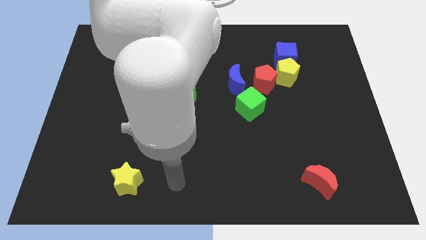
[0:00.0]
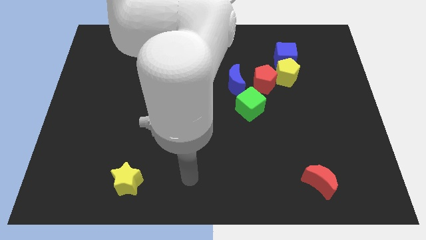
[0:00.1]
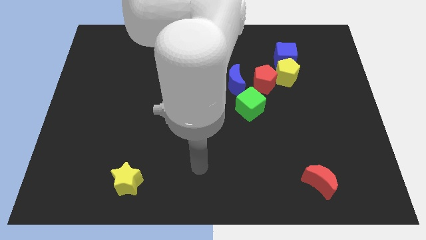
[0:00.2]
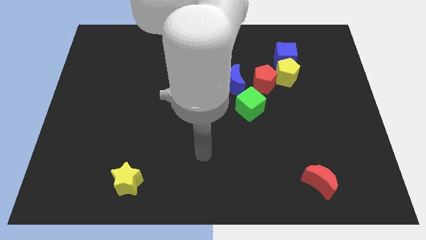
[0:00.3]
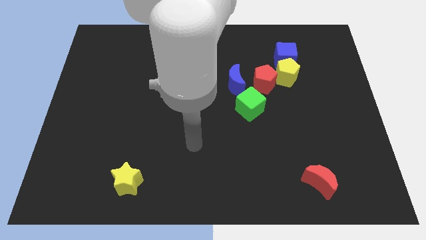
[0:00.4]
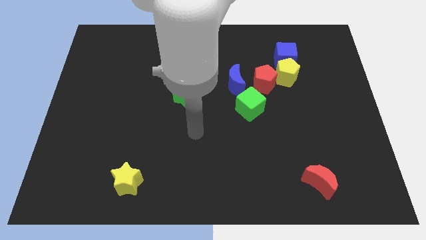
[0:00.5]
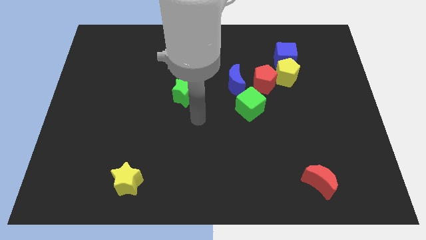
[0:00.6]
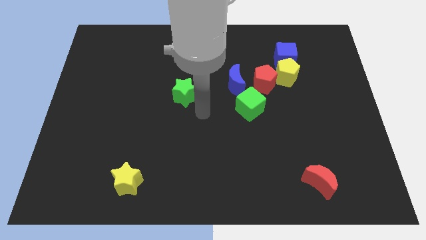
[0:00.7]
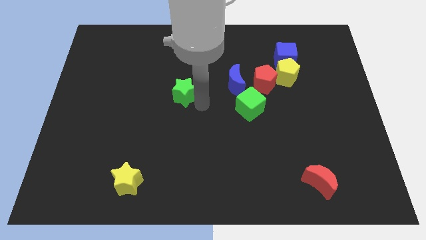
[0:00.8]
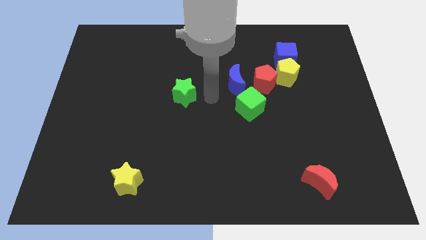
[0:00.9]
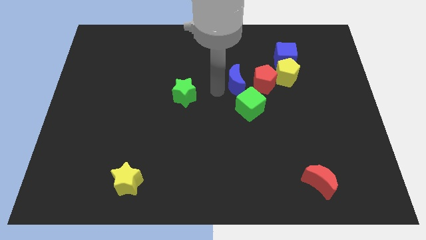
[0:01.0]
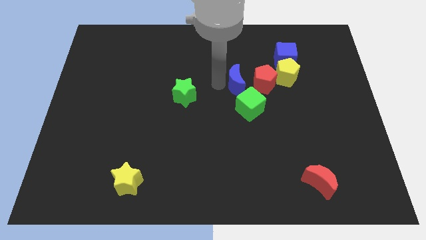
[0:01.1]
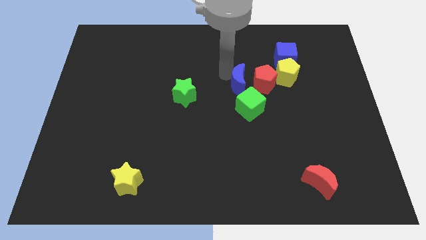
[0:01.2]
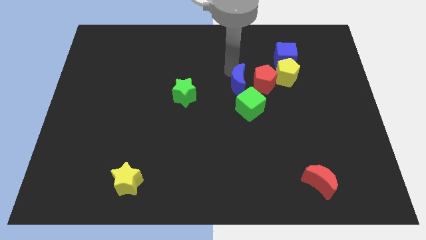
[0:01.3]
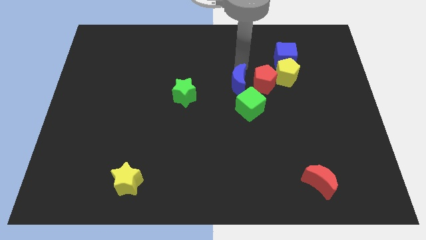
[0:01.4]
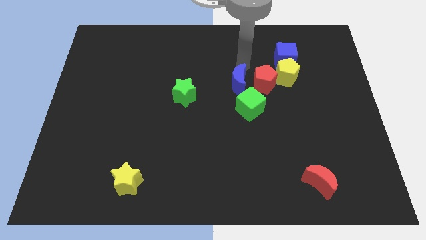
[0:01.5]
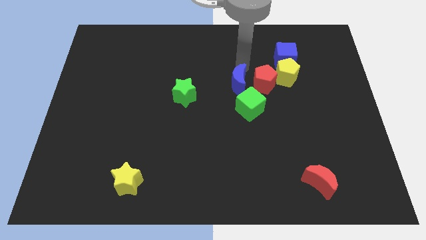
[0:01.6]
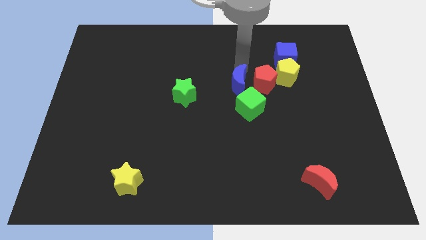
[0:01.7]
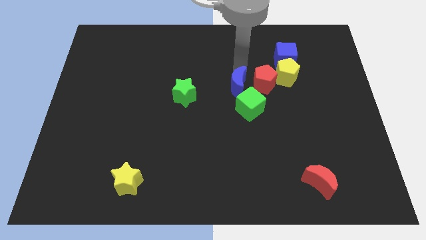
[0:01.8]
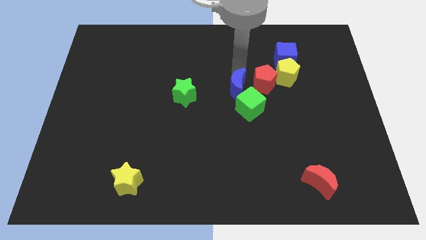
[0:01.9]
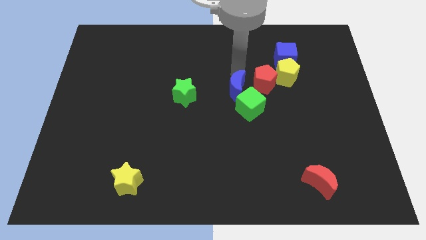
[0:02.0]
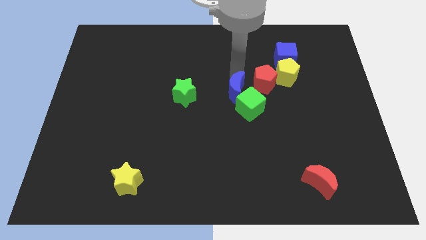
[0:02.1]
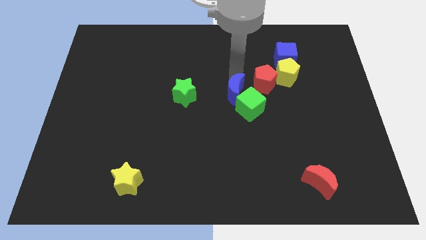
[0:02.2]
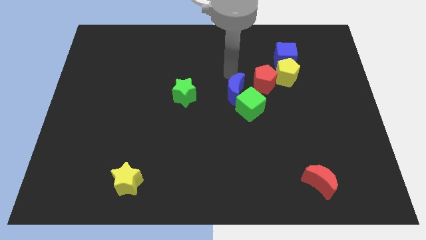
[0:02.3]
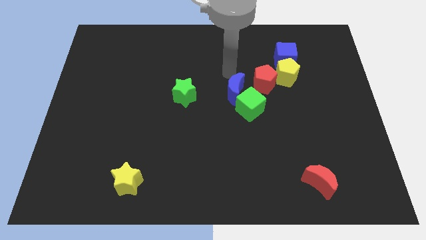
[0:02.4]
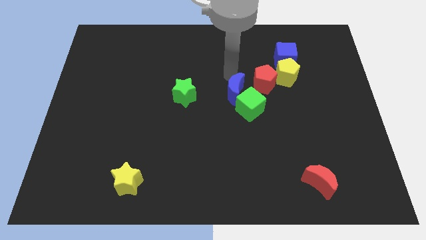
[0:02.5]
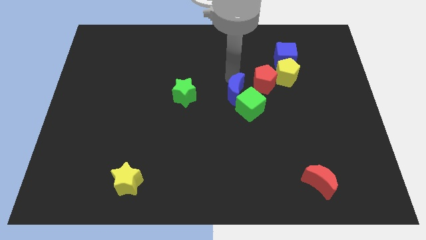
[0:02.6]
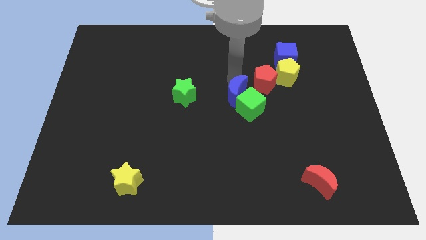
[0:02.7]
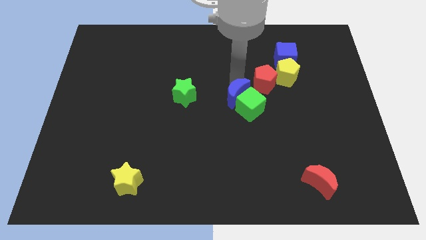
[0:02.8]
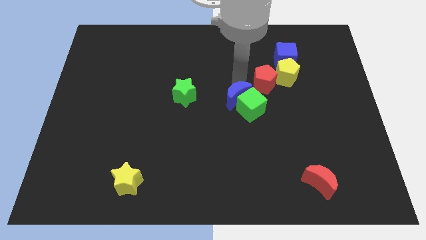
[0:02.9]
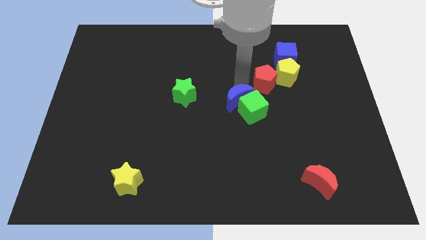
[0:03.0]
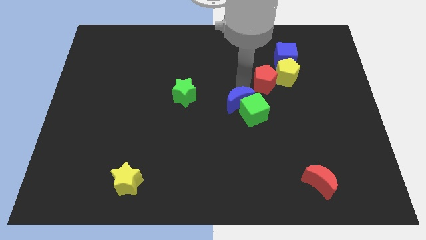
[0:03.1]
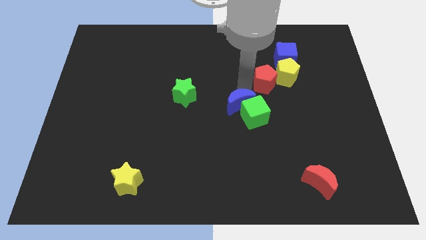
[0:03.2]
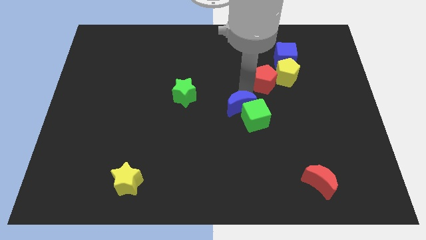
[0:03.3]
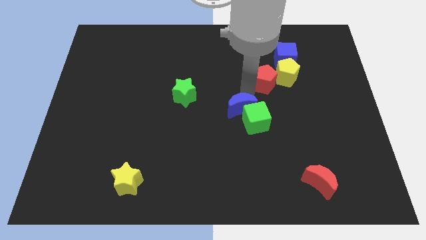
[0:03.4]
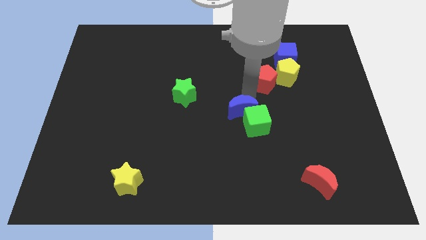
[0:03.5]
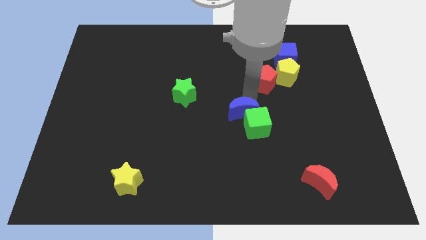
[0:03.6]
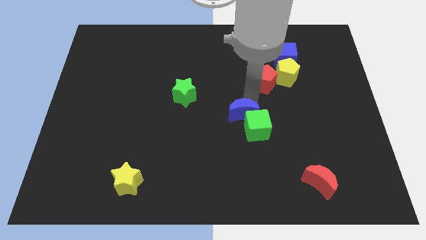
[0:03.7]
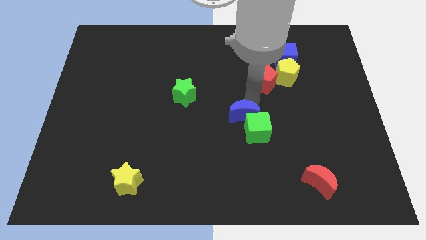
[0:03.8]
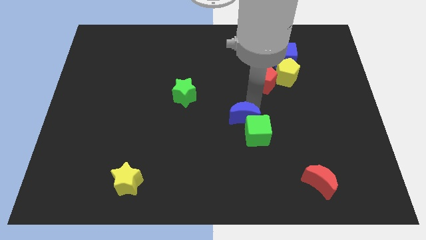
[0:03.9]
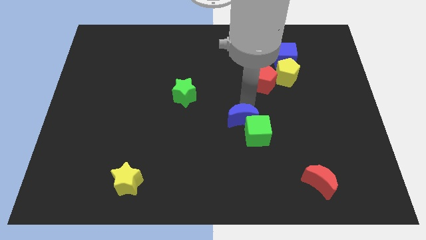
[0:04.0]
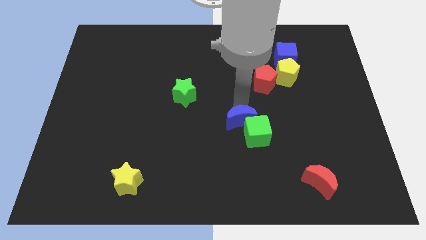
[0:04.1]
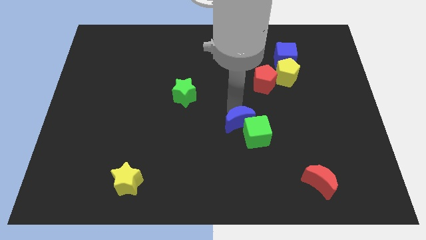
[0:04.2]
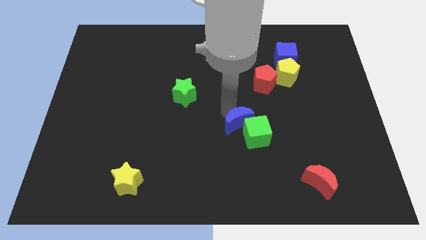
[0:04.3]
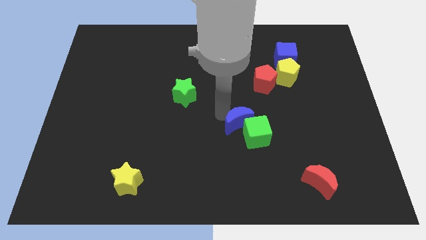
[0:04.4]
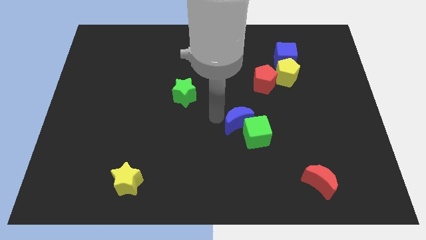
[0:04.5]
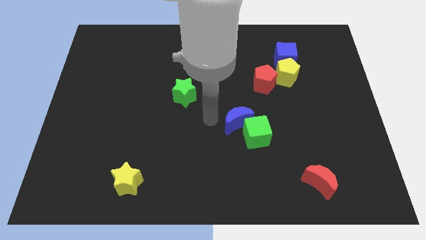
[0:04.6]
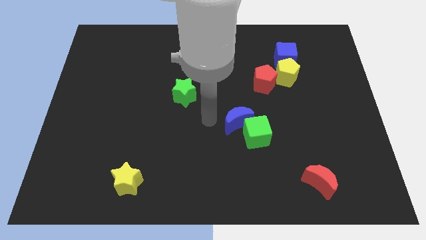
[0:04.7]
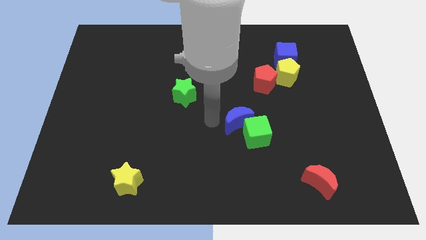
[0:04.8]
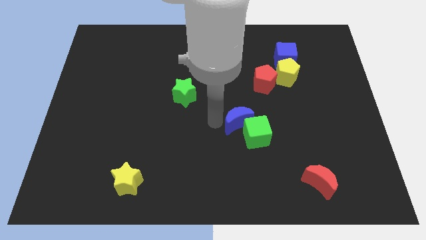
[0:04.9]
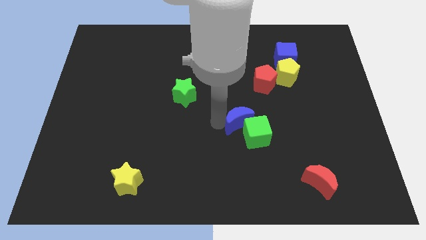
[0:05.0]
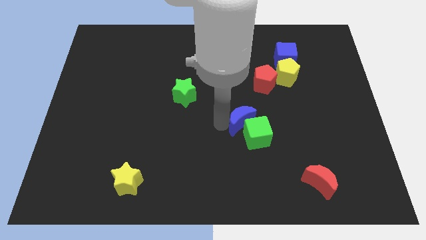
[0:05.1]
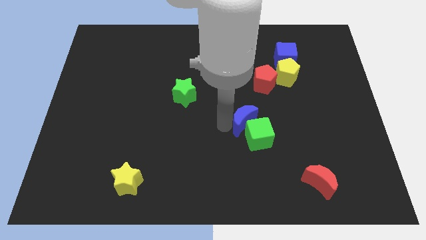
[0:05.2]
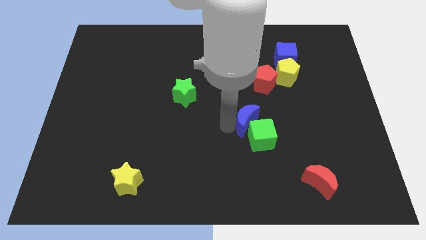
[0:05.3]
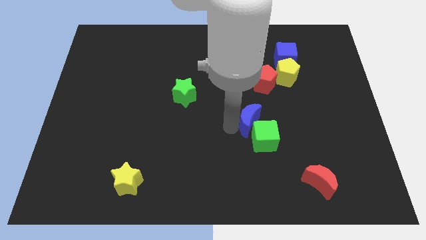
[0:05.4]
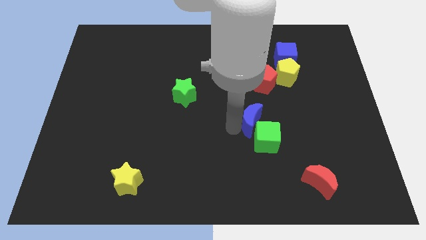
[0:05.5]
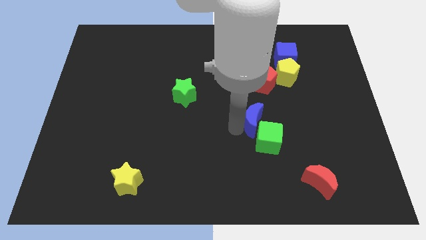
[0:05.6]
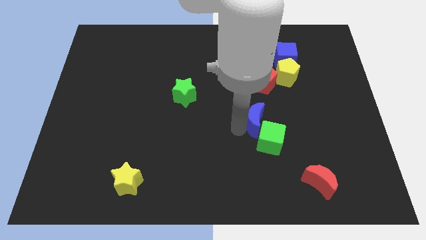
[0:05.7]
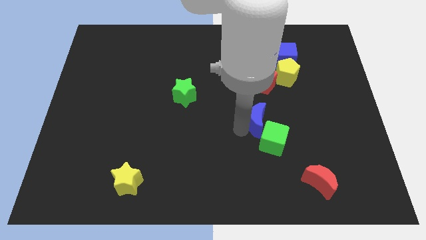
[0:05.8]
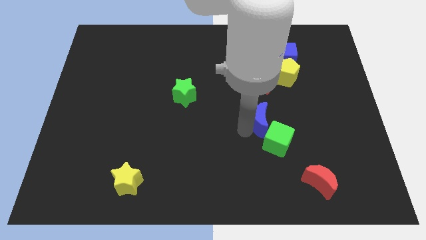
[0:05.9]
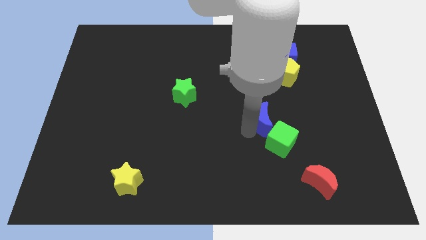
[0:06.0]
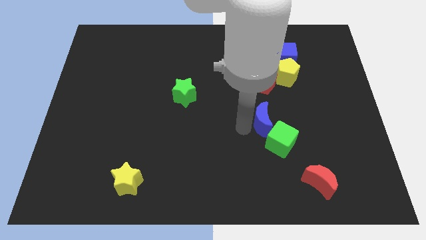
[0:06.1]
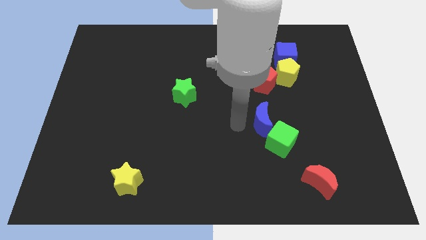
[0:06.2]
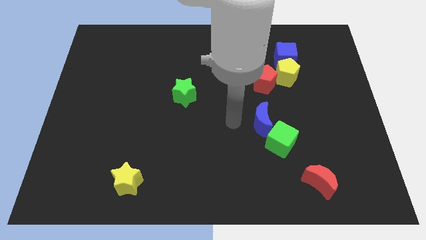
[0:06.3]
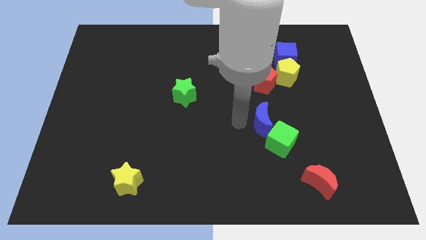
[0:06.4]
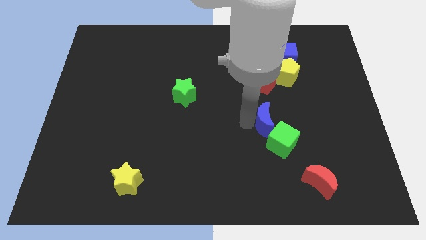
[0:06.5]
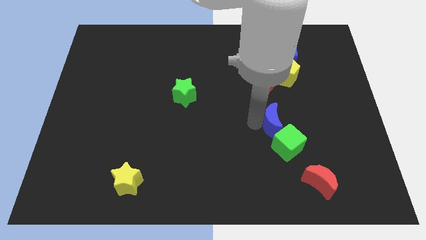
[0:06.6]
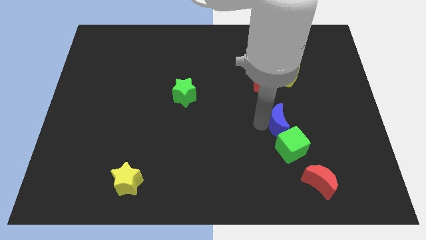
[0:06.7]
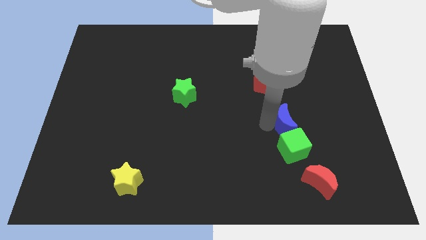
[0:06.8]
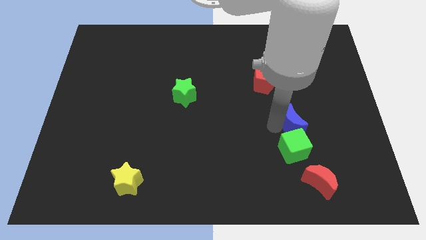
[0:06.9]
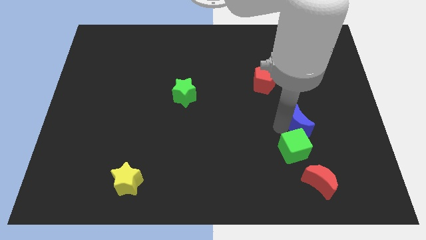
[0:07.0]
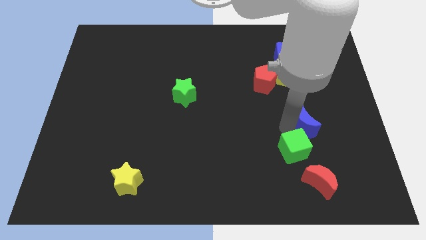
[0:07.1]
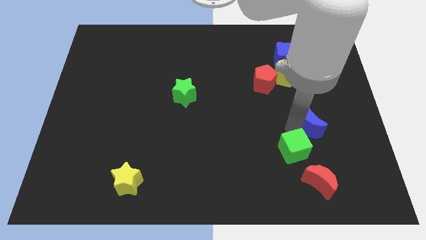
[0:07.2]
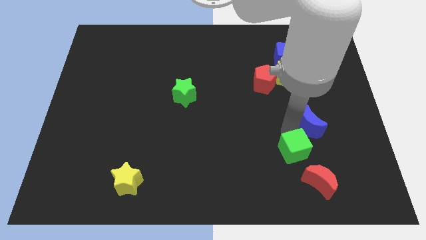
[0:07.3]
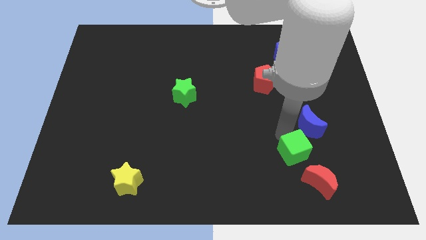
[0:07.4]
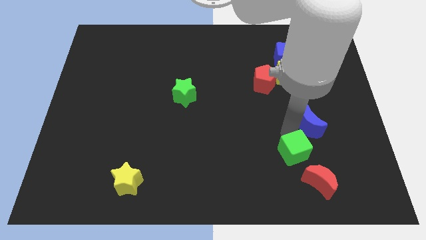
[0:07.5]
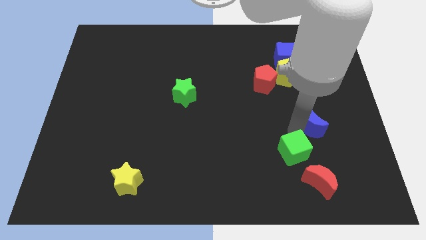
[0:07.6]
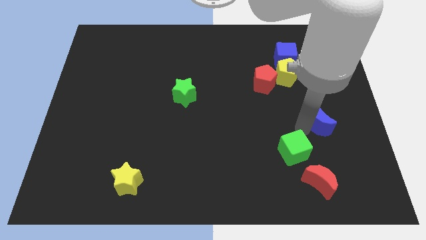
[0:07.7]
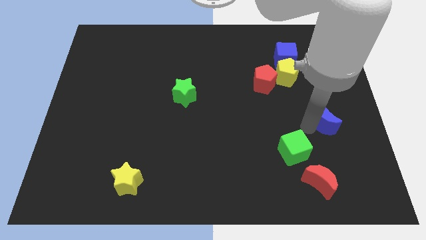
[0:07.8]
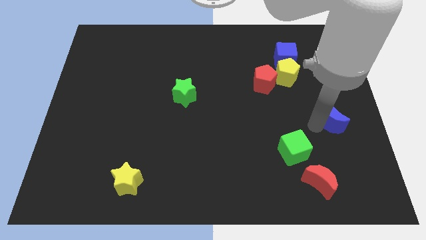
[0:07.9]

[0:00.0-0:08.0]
move the blue moon to the center right
